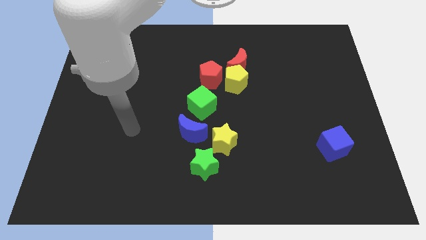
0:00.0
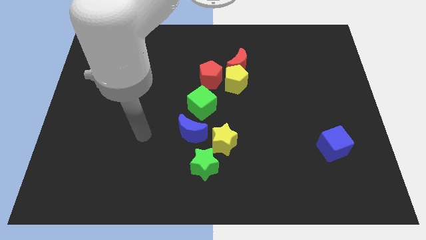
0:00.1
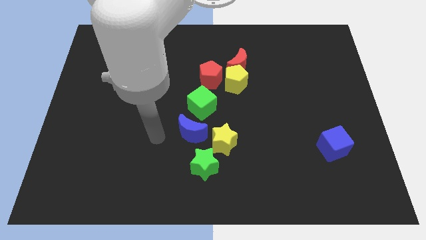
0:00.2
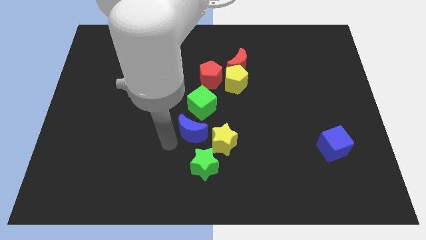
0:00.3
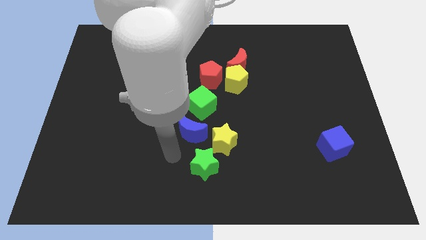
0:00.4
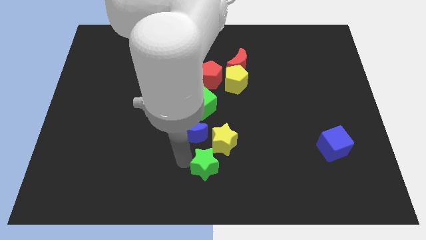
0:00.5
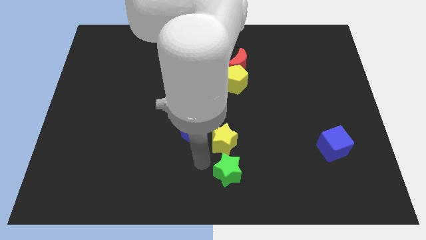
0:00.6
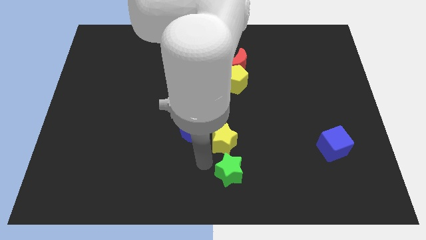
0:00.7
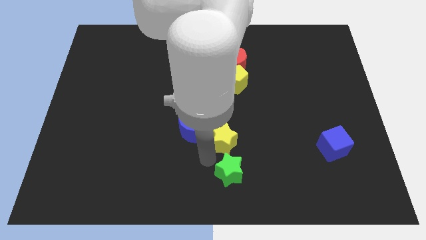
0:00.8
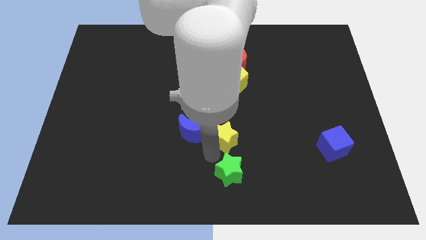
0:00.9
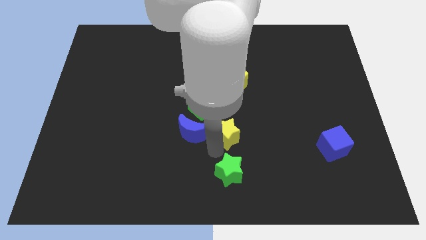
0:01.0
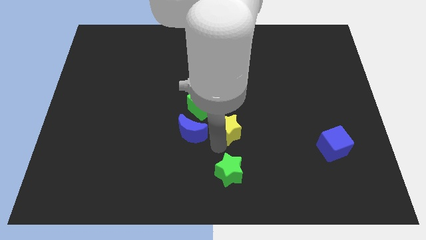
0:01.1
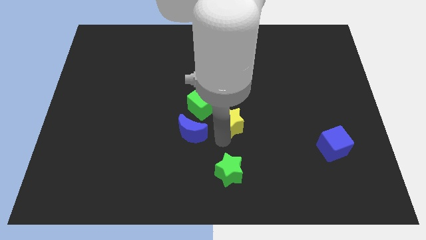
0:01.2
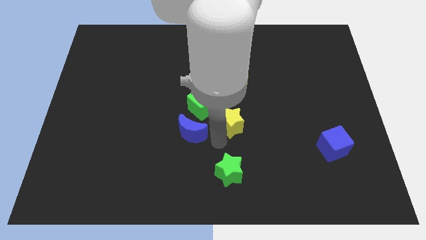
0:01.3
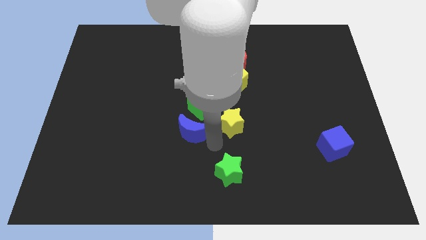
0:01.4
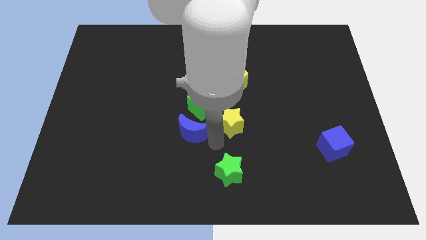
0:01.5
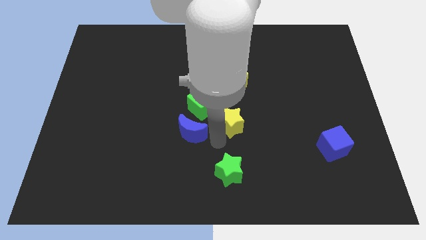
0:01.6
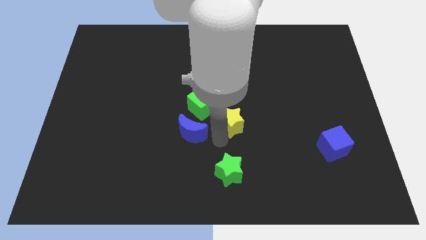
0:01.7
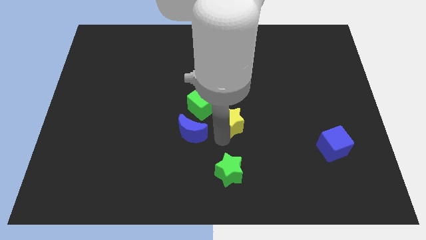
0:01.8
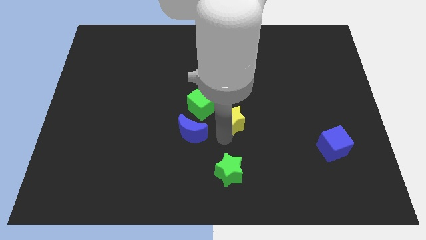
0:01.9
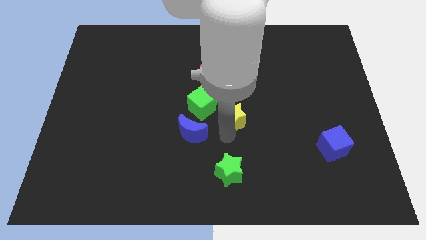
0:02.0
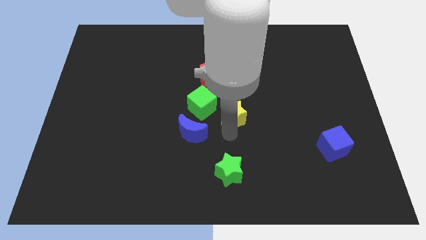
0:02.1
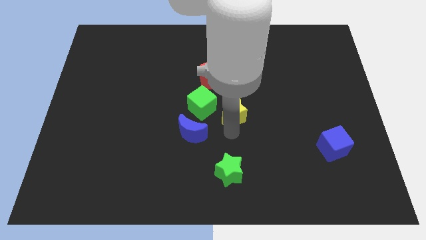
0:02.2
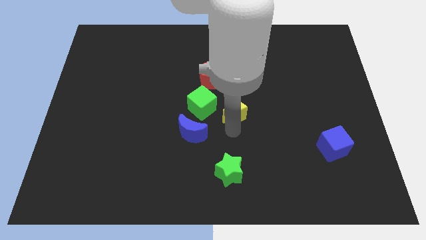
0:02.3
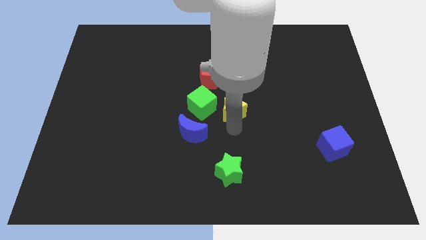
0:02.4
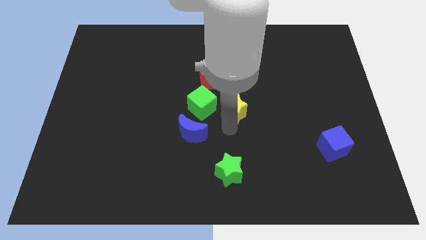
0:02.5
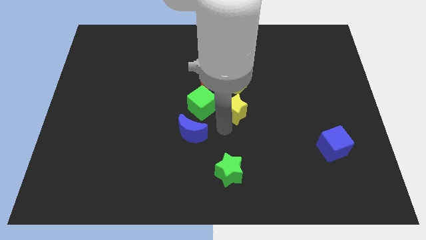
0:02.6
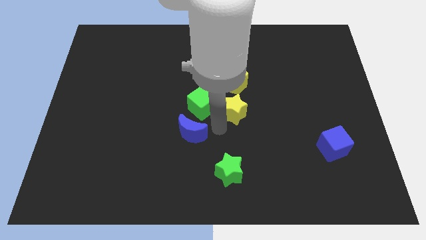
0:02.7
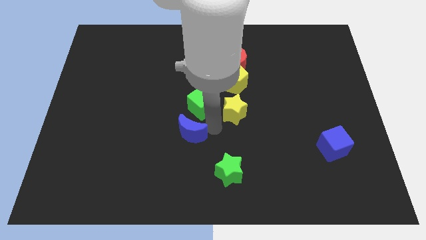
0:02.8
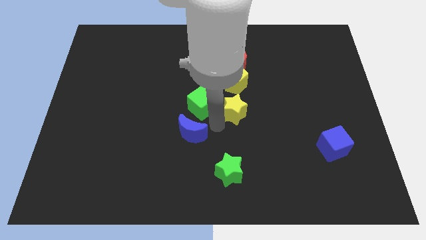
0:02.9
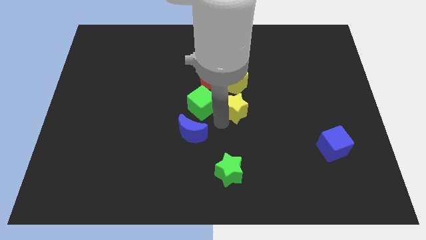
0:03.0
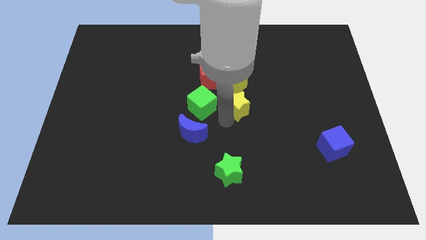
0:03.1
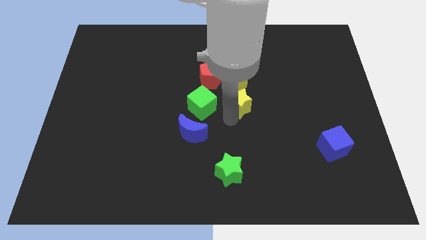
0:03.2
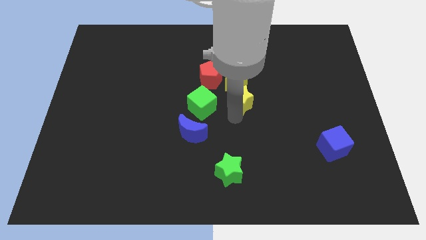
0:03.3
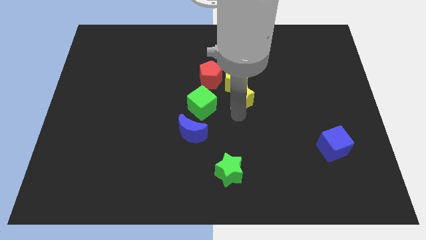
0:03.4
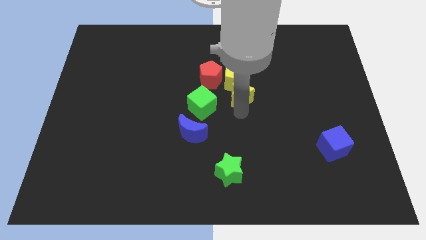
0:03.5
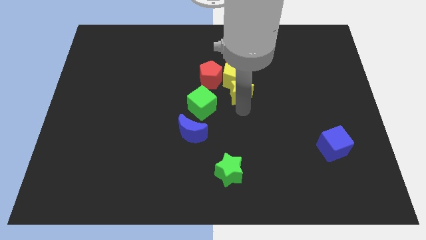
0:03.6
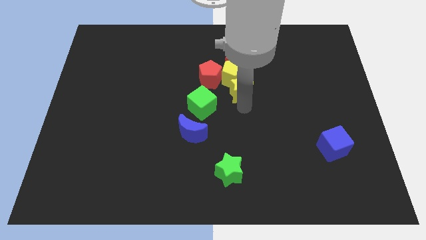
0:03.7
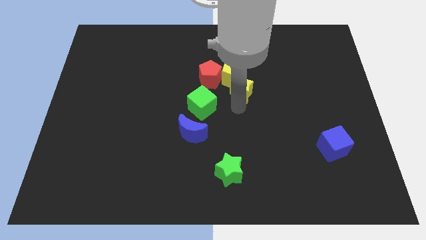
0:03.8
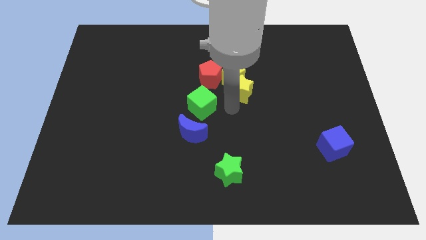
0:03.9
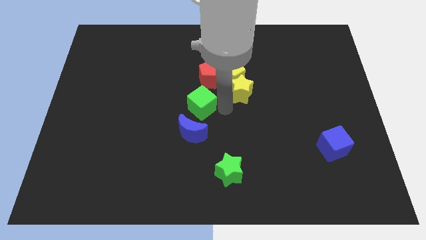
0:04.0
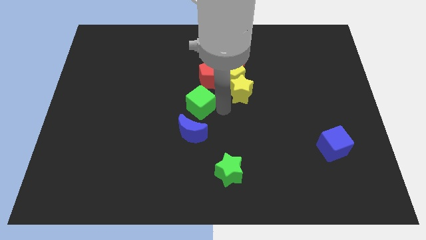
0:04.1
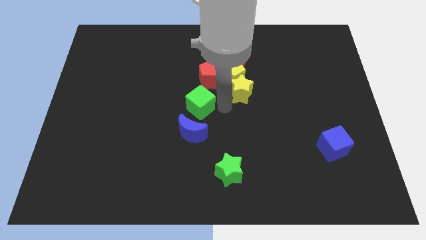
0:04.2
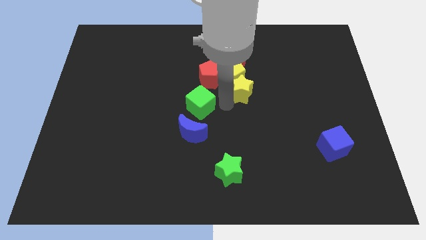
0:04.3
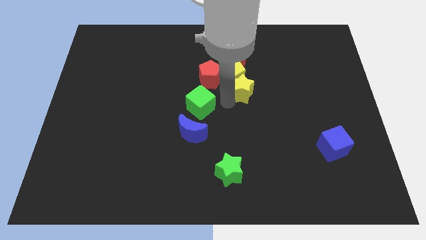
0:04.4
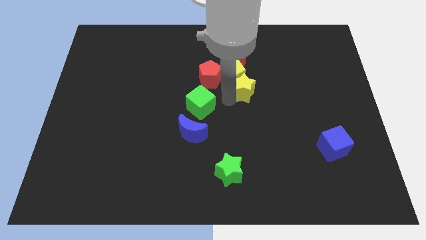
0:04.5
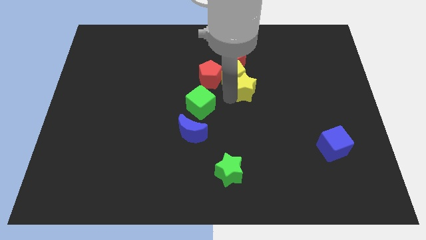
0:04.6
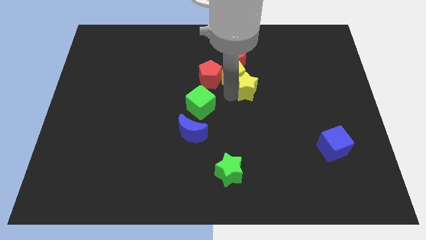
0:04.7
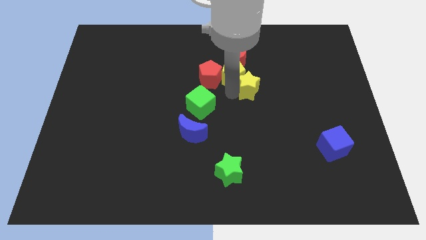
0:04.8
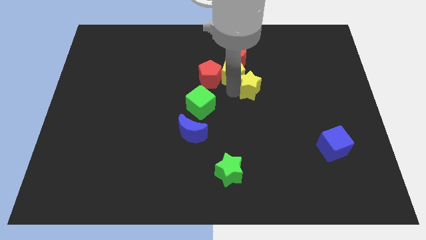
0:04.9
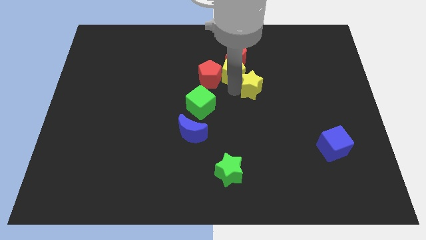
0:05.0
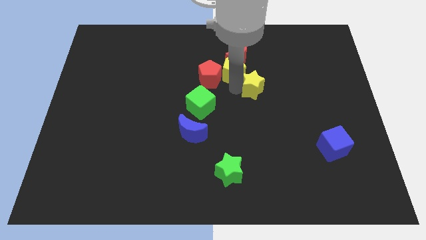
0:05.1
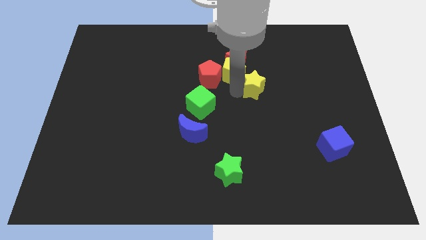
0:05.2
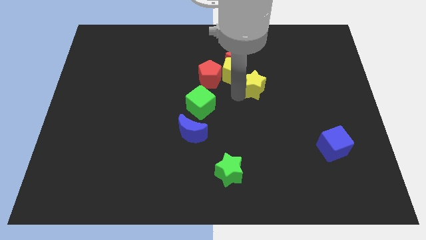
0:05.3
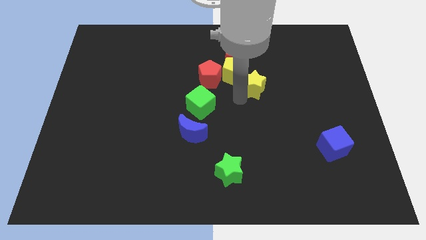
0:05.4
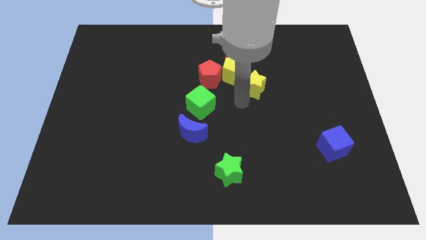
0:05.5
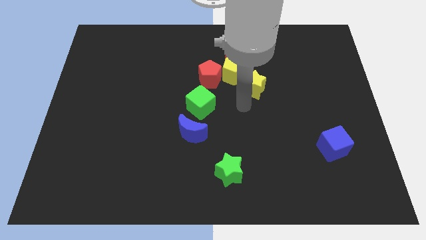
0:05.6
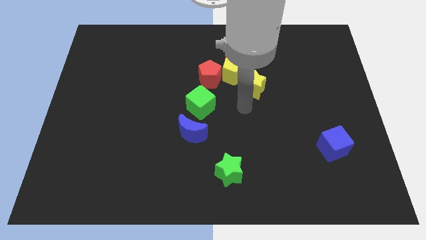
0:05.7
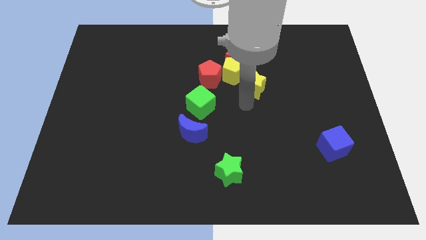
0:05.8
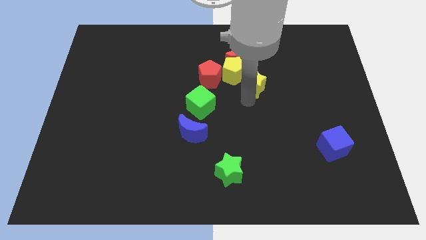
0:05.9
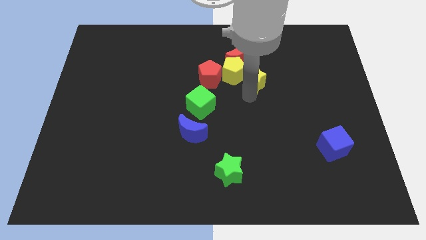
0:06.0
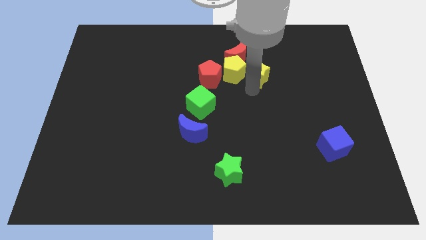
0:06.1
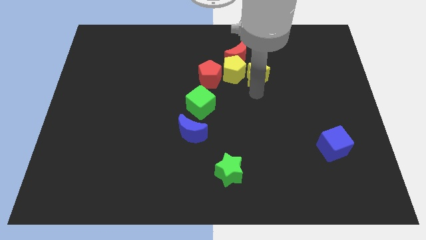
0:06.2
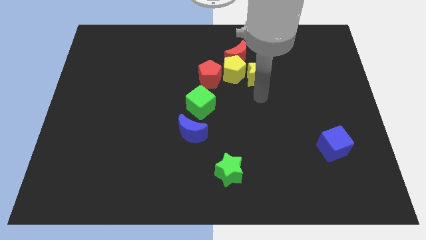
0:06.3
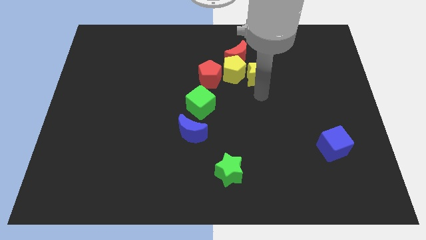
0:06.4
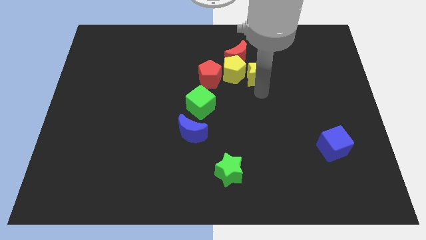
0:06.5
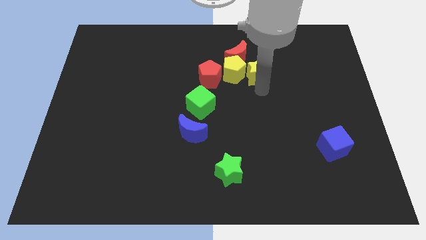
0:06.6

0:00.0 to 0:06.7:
move the yellow star diagonally up and to the right of the yellow pentagon

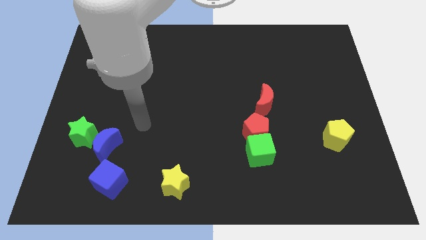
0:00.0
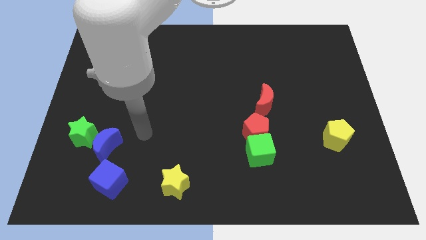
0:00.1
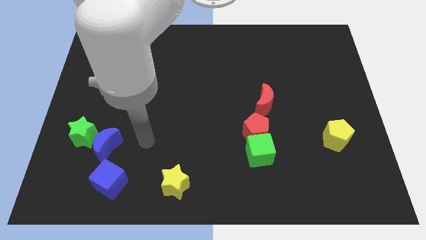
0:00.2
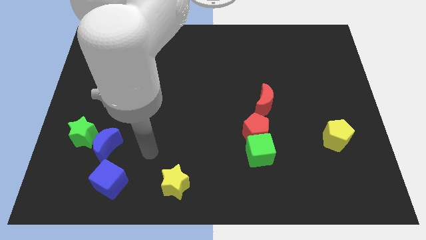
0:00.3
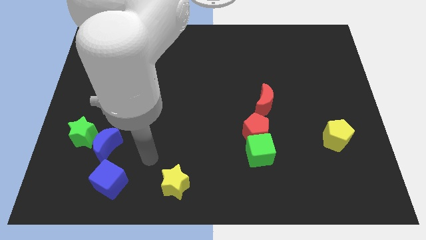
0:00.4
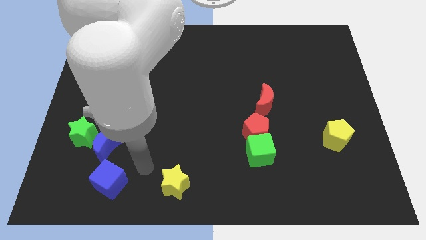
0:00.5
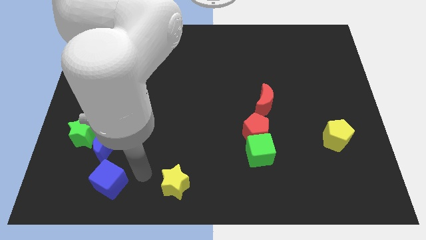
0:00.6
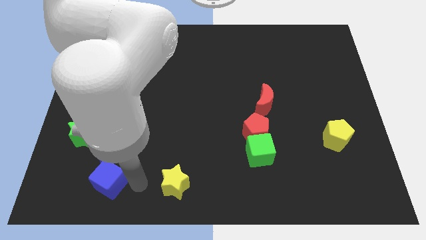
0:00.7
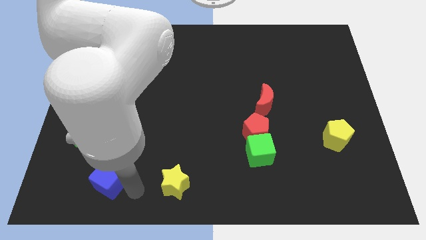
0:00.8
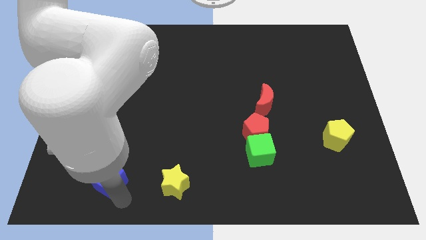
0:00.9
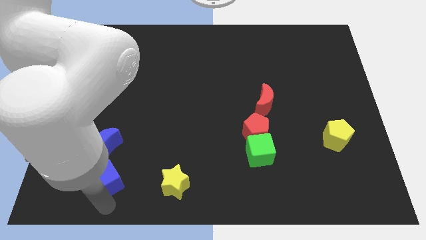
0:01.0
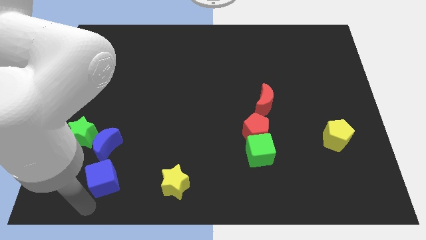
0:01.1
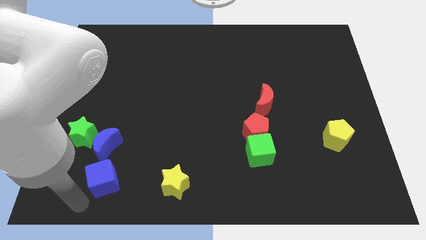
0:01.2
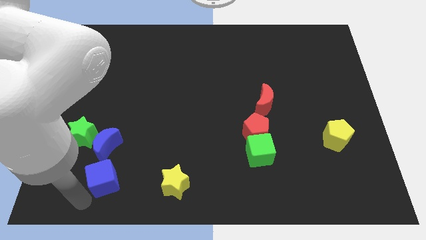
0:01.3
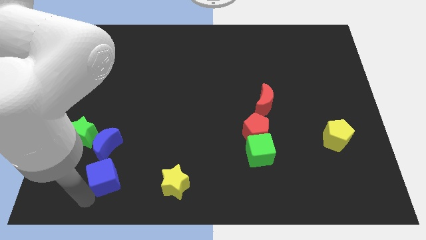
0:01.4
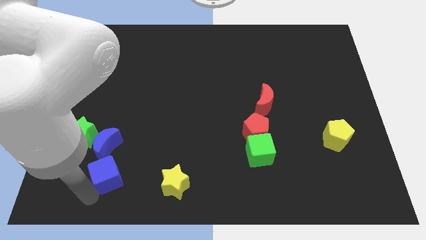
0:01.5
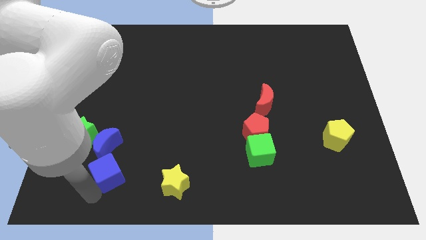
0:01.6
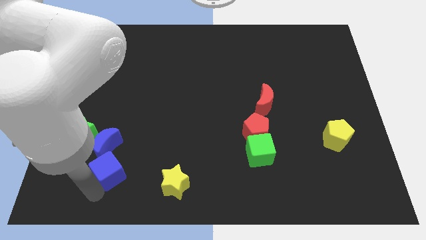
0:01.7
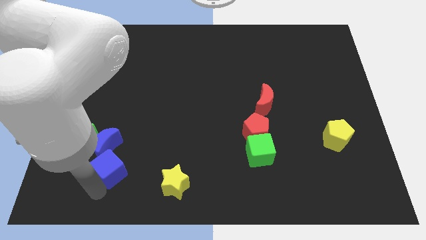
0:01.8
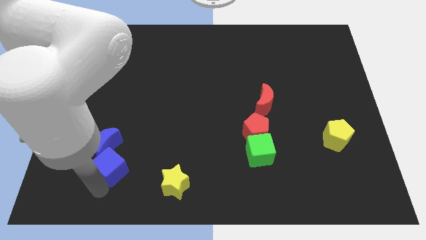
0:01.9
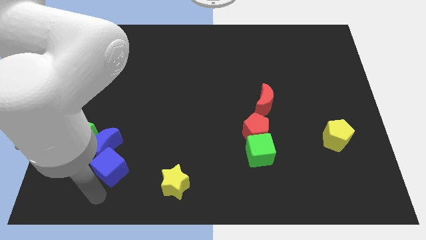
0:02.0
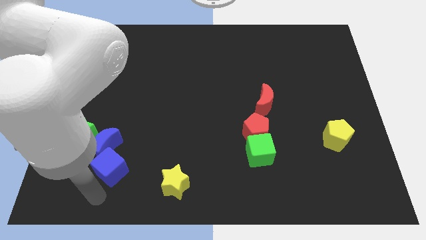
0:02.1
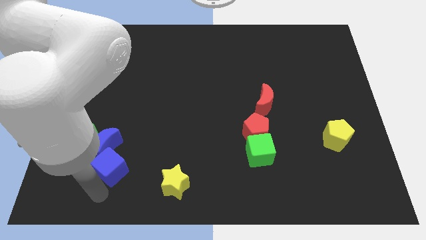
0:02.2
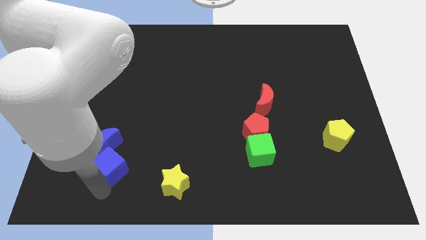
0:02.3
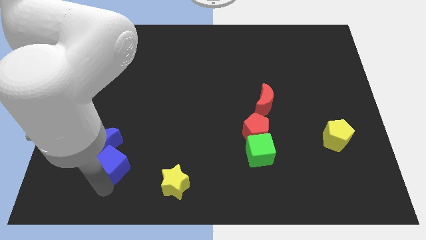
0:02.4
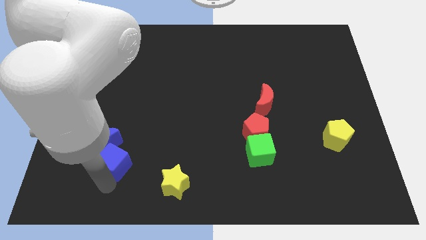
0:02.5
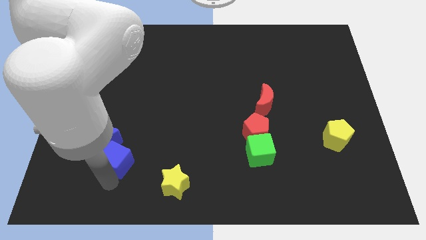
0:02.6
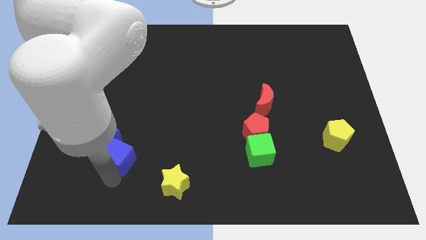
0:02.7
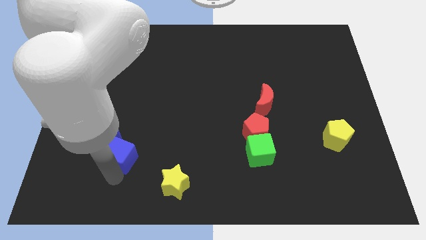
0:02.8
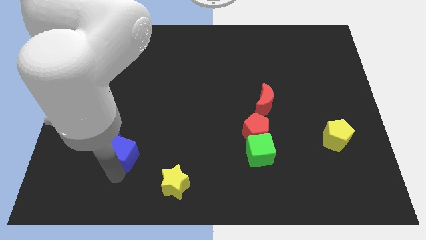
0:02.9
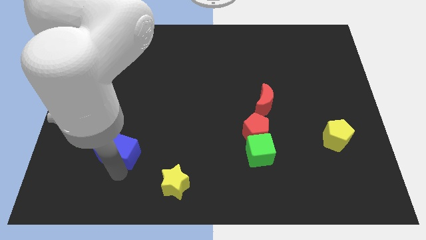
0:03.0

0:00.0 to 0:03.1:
push the blue cube to the top right of the blue moon
